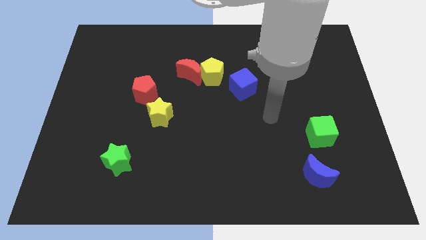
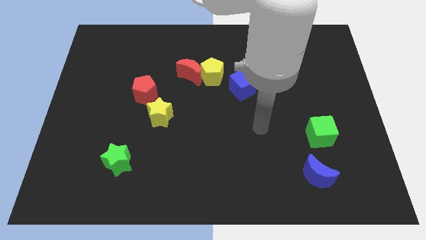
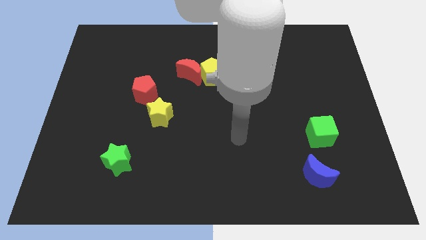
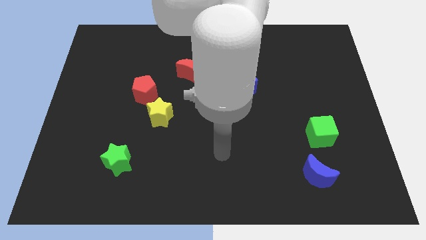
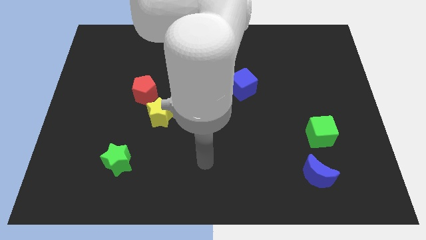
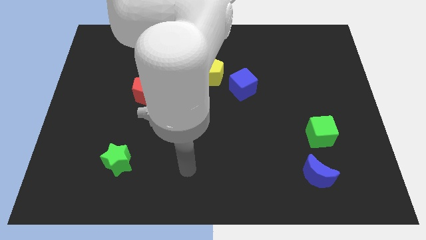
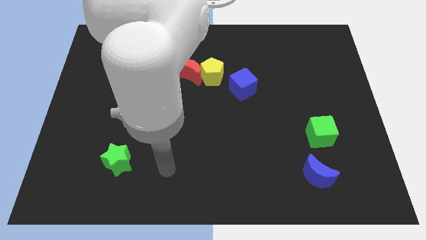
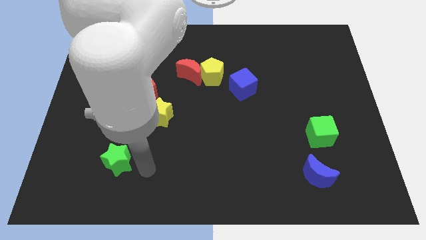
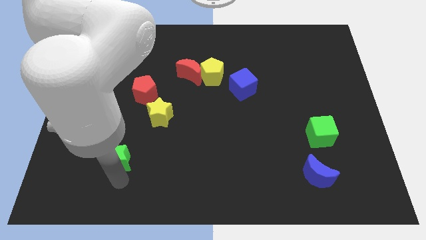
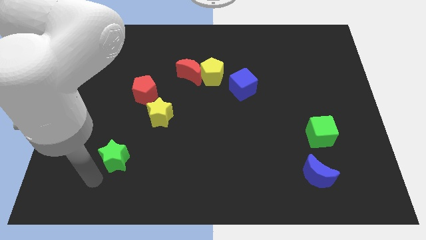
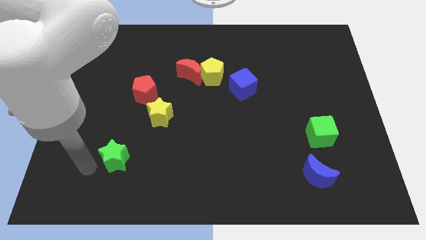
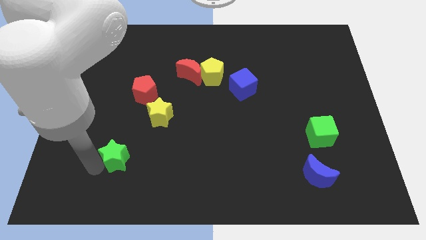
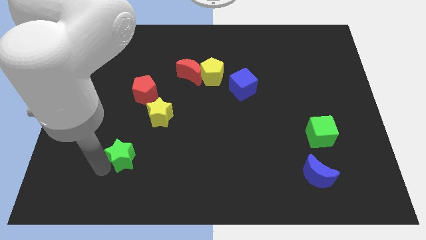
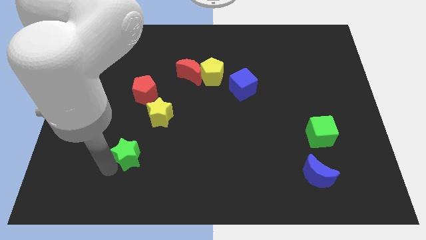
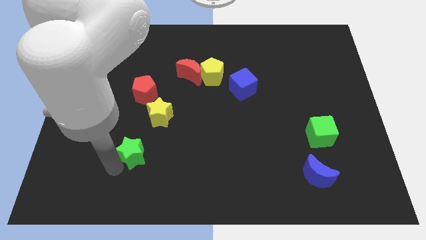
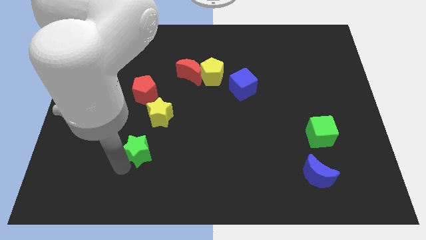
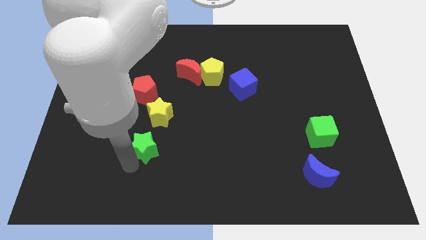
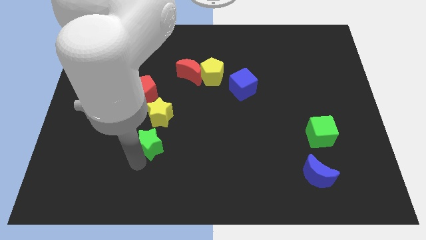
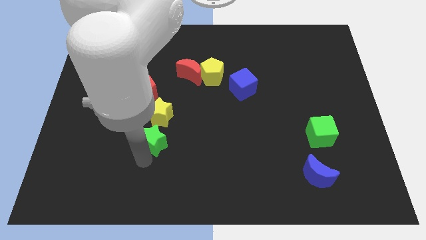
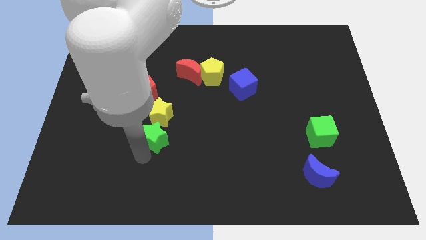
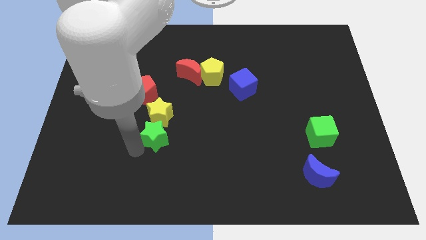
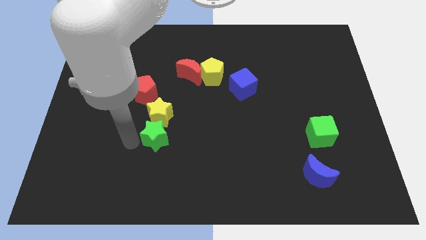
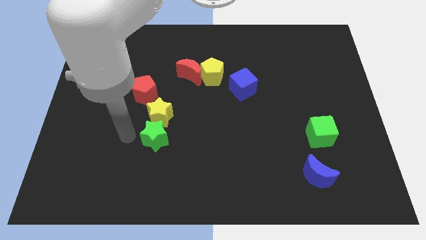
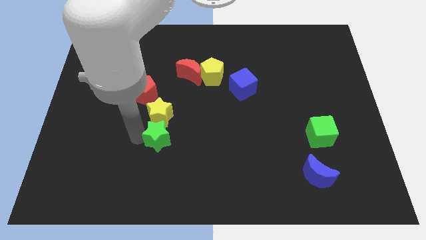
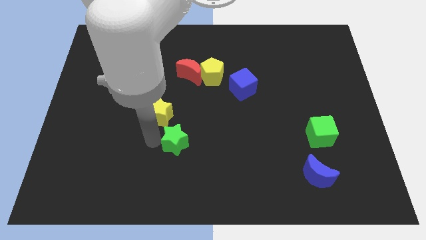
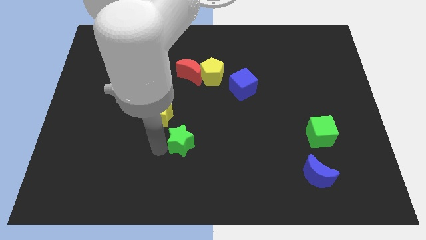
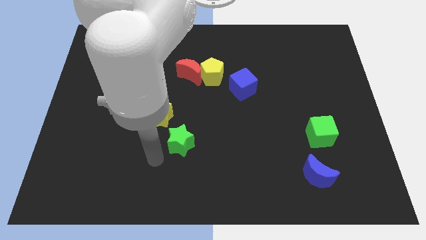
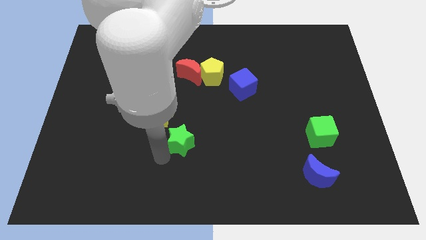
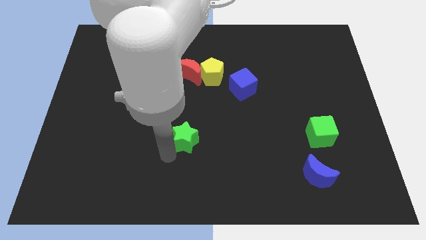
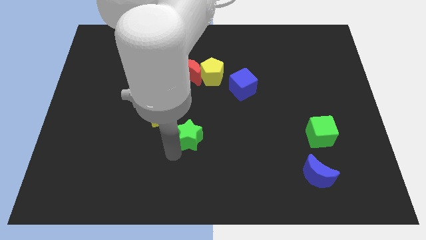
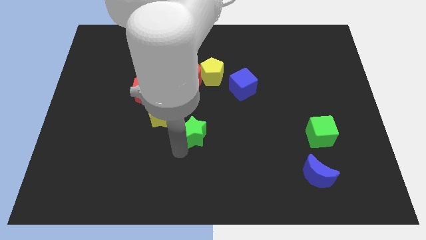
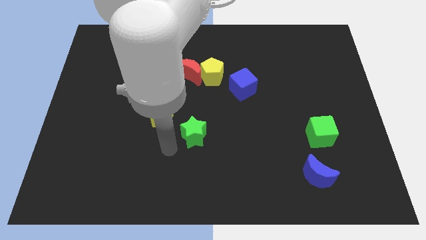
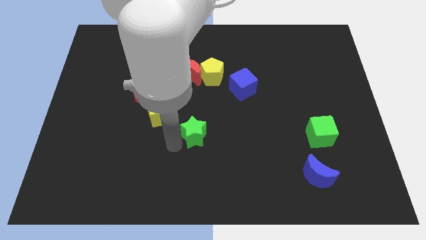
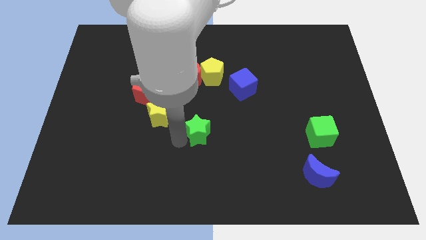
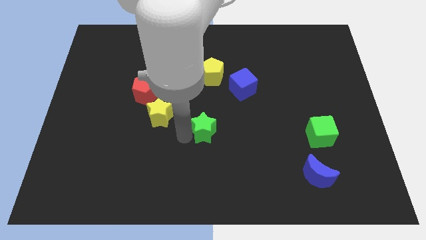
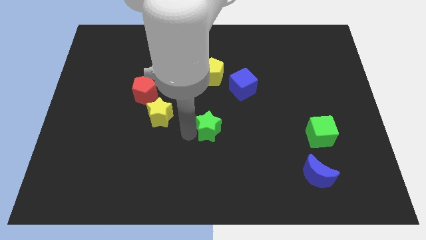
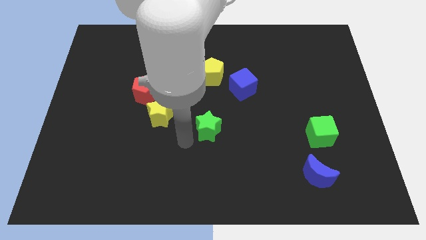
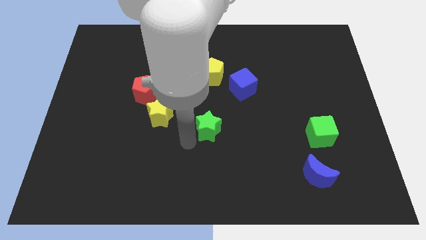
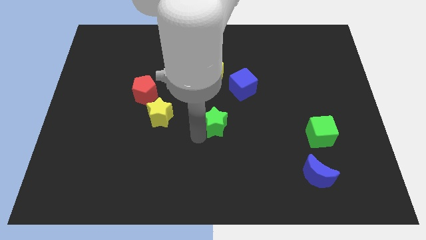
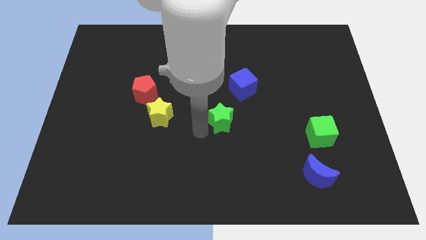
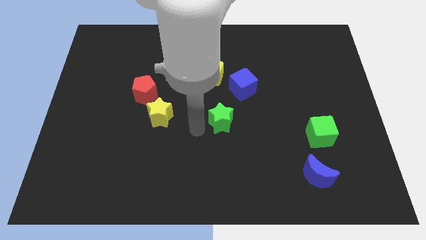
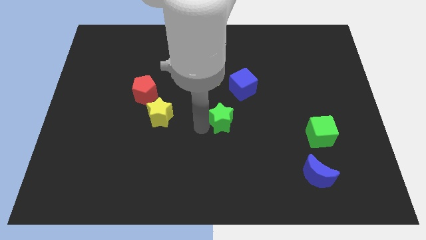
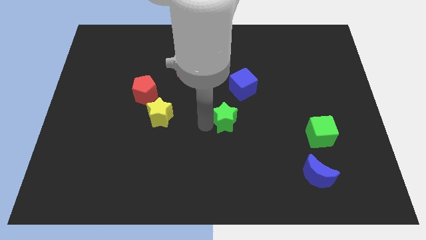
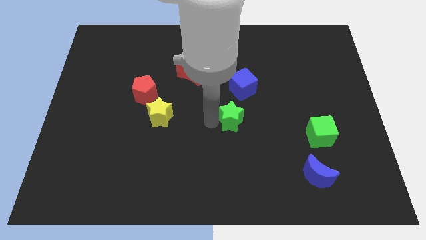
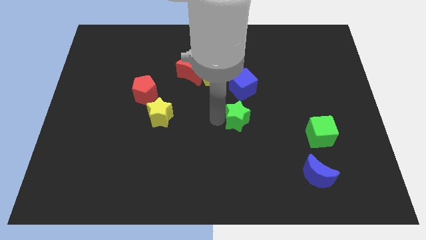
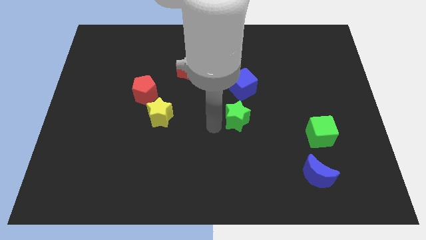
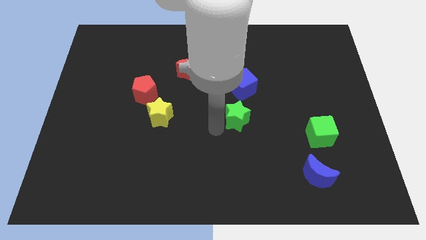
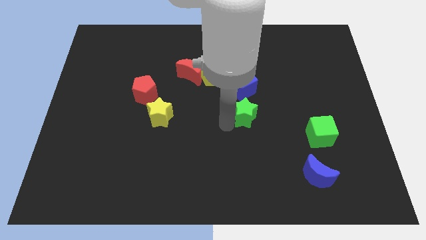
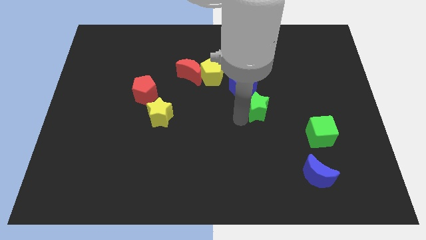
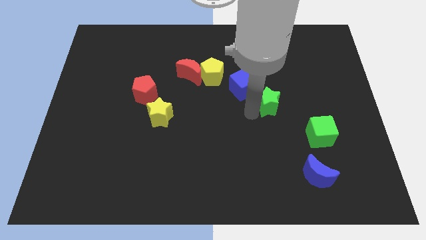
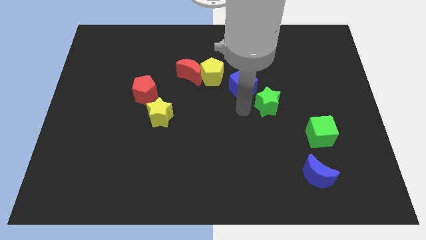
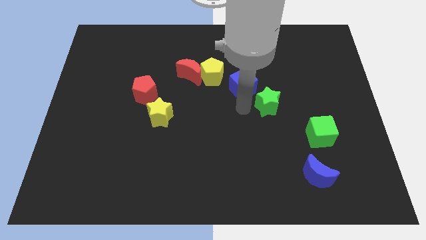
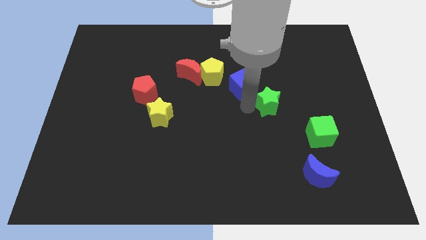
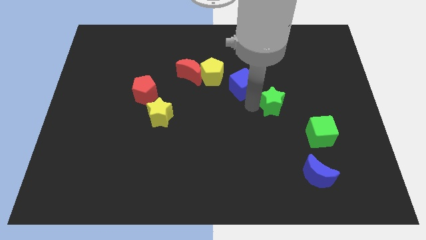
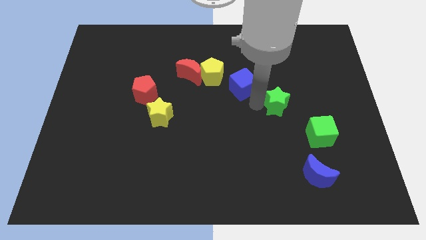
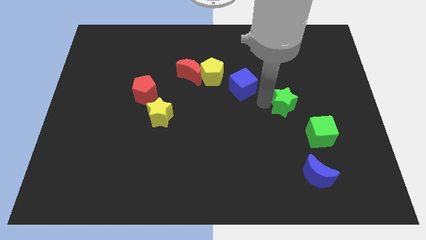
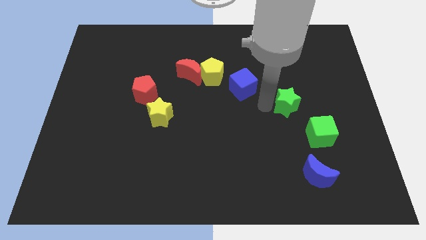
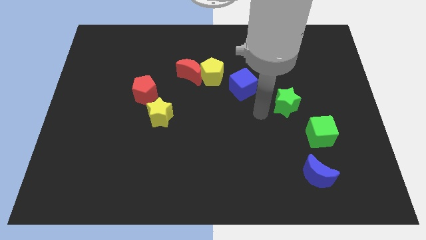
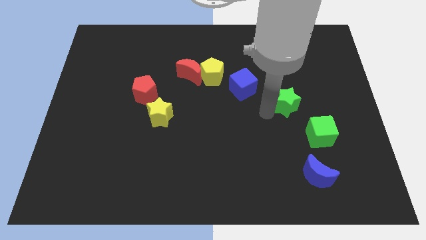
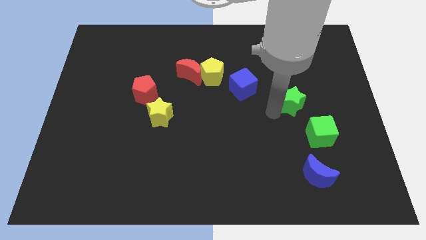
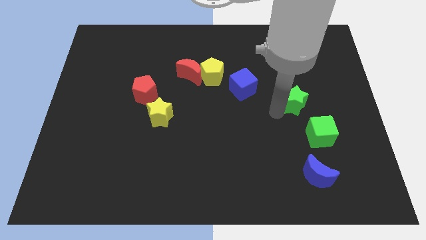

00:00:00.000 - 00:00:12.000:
put the green star to the top of the green cube

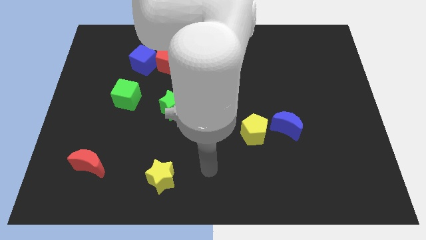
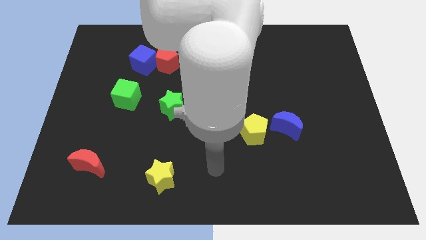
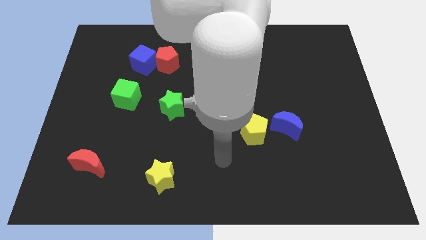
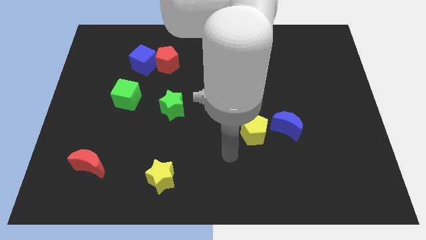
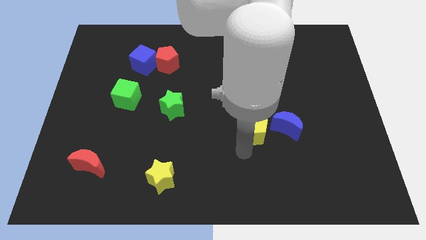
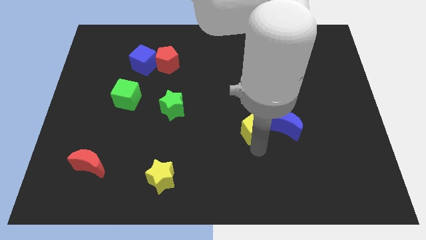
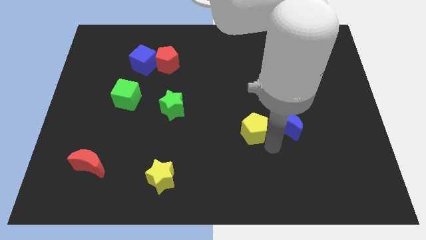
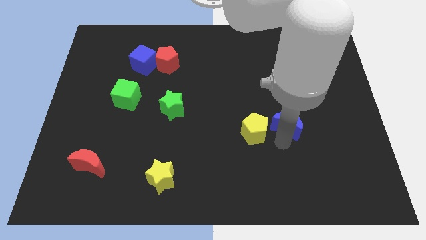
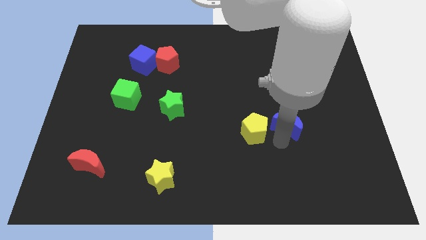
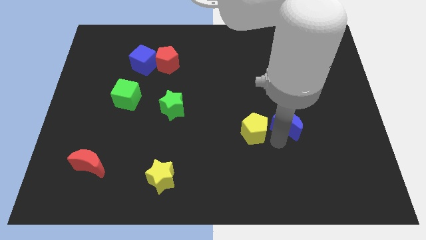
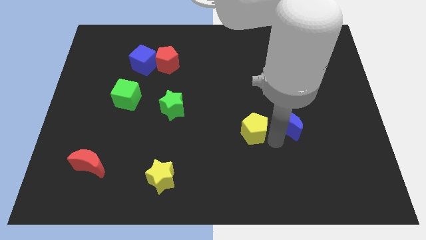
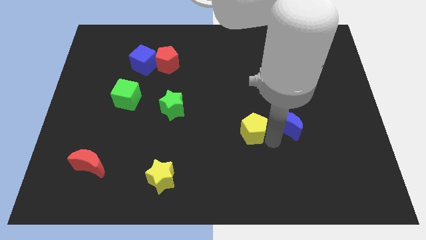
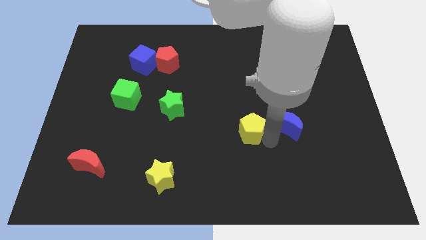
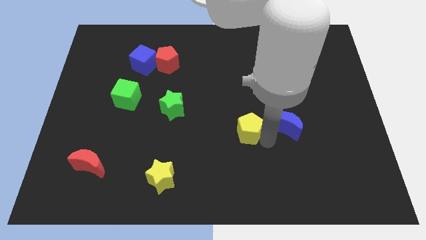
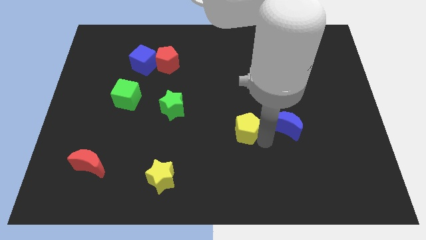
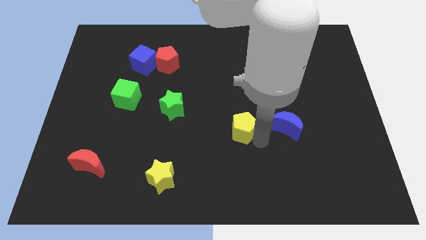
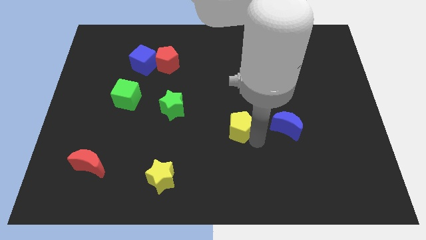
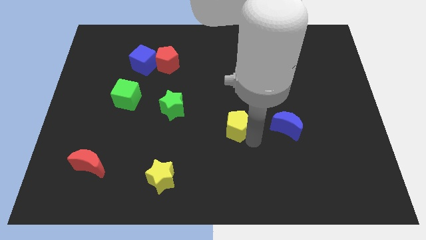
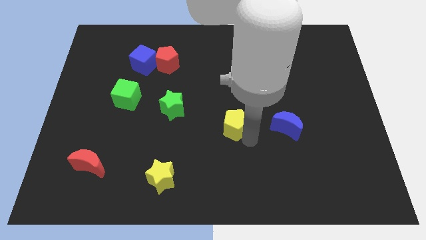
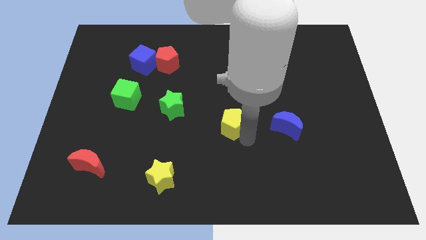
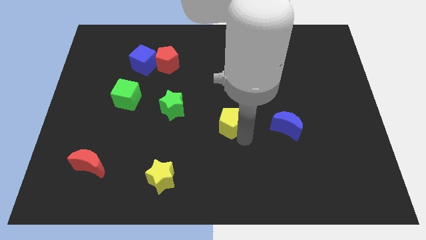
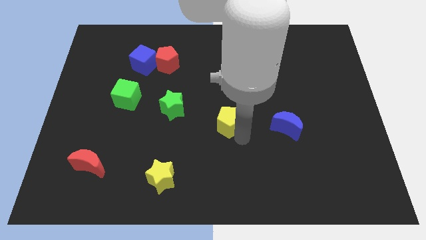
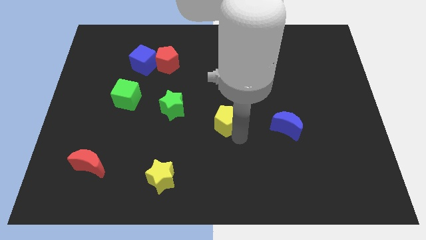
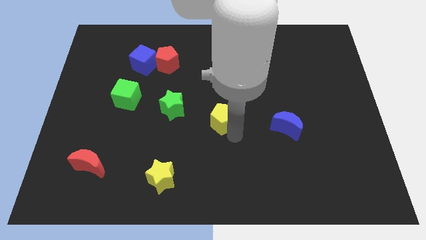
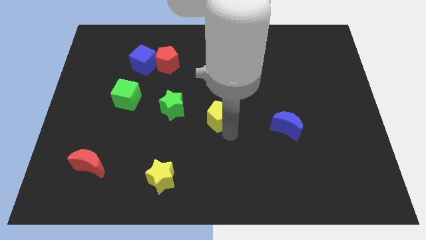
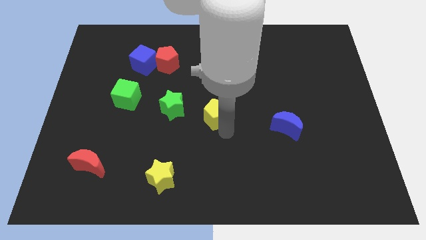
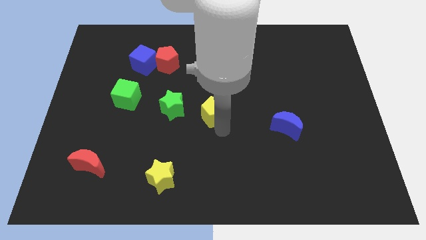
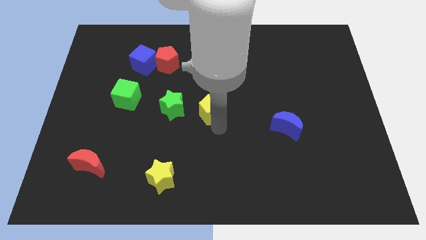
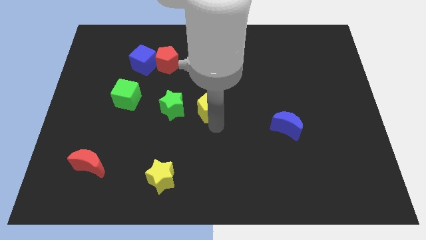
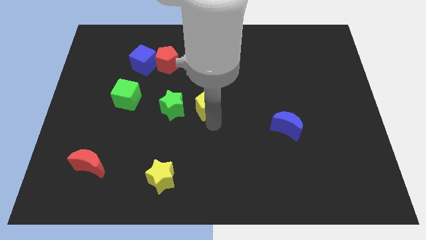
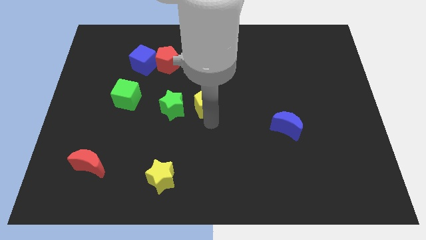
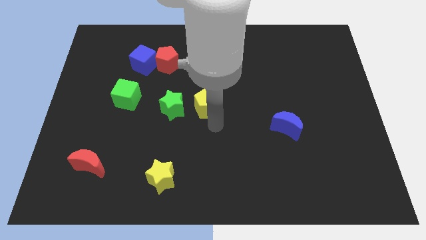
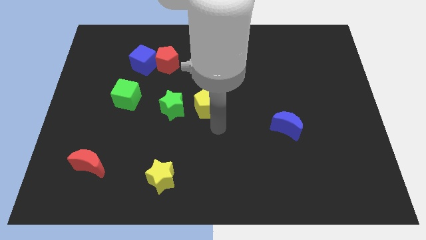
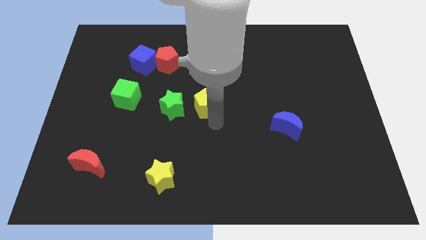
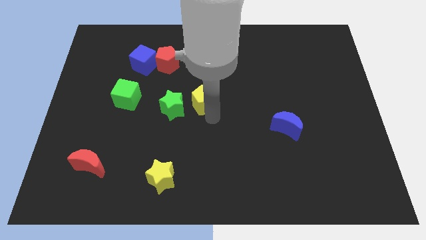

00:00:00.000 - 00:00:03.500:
move the yellow pentagon to the top right of the green star
